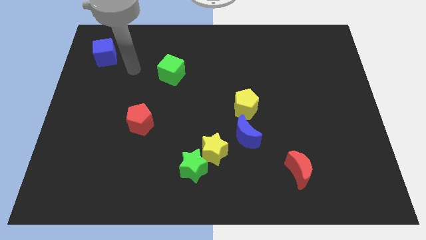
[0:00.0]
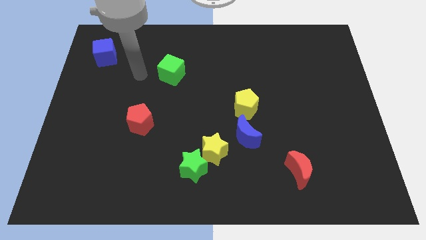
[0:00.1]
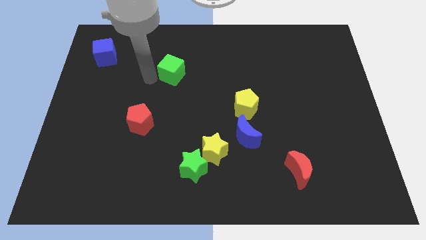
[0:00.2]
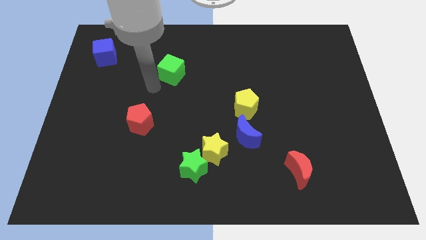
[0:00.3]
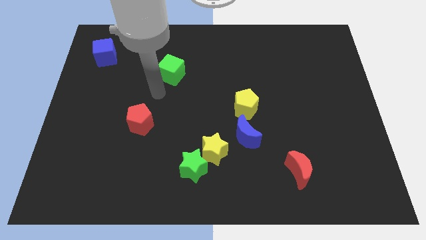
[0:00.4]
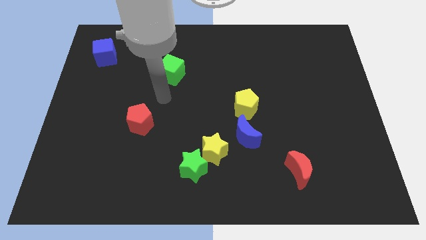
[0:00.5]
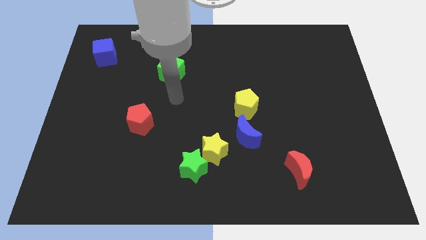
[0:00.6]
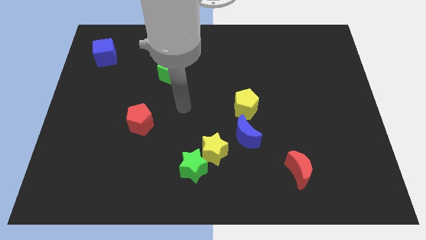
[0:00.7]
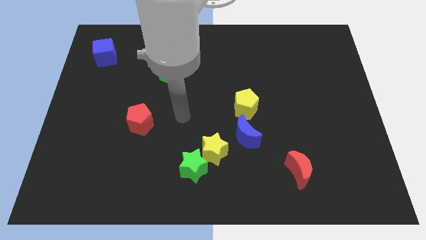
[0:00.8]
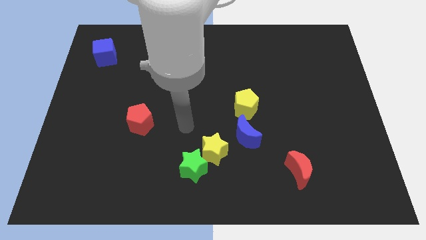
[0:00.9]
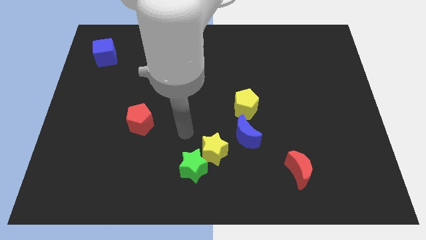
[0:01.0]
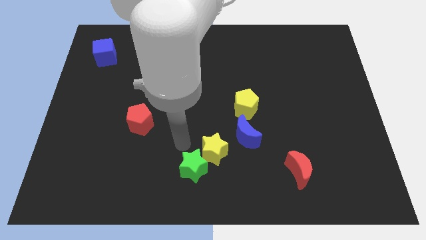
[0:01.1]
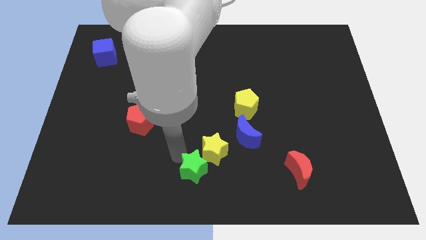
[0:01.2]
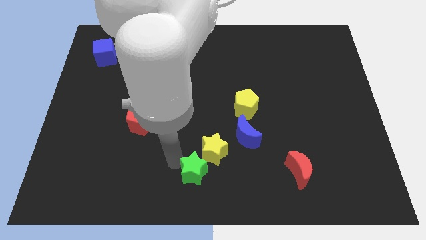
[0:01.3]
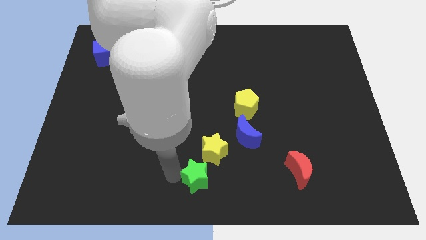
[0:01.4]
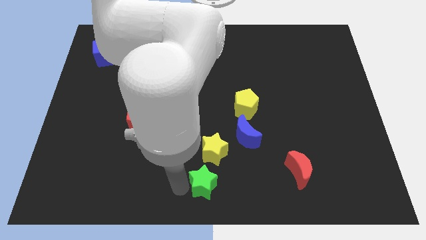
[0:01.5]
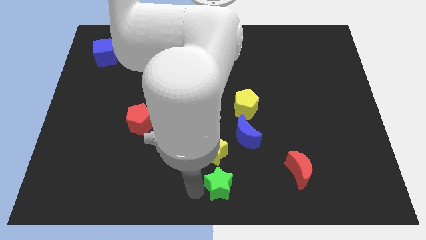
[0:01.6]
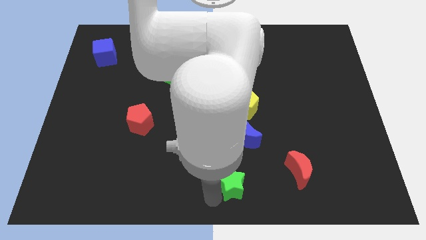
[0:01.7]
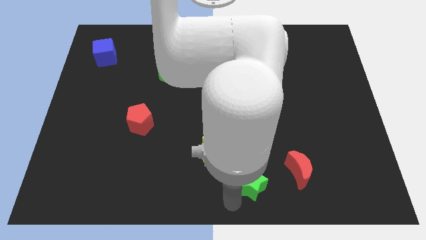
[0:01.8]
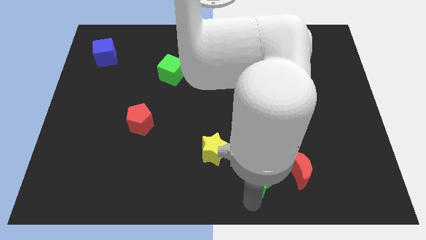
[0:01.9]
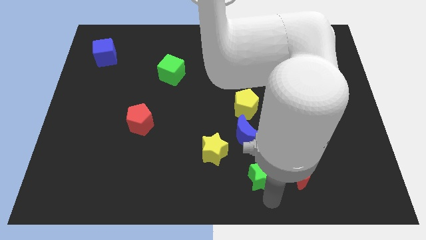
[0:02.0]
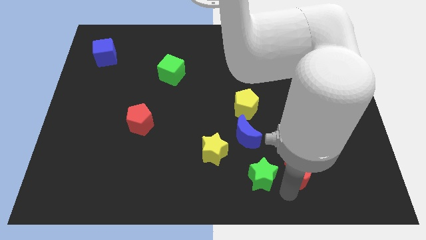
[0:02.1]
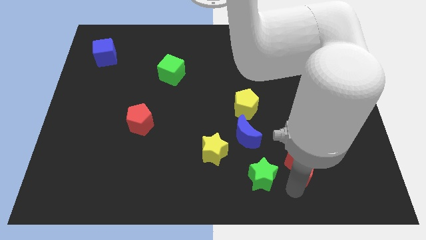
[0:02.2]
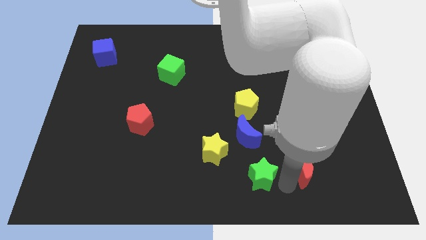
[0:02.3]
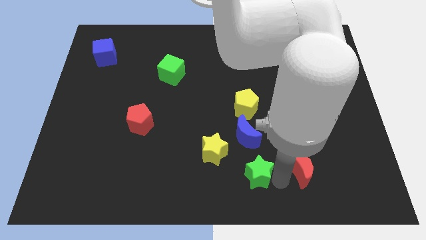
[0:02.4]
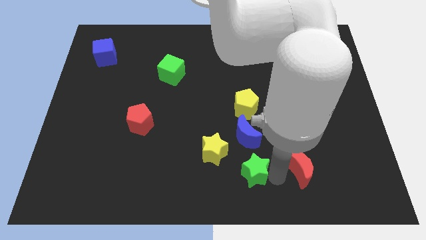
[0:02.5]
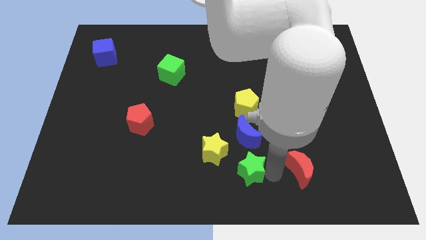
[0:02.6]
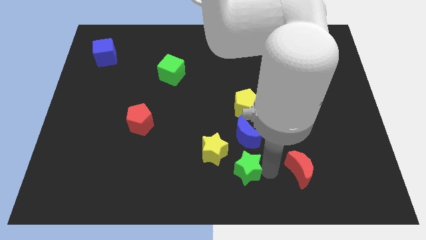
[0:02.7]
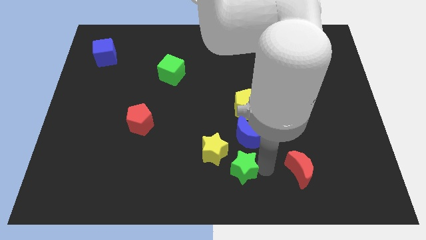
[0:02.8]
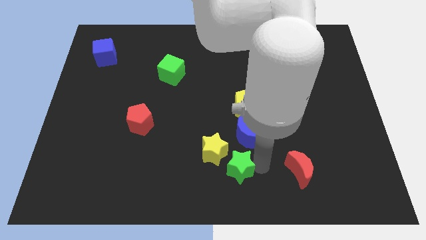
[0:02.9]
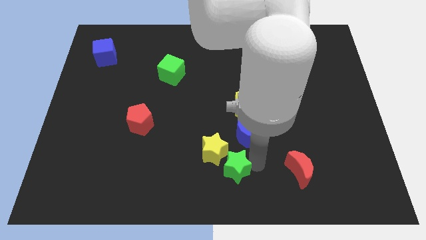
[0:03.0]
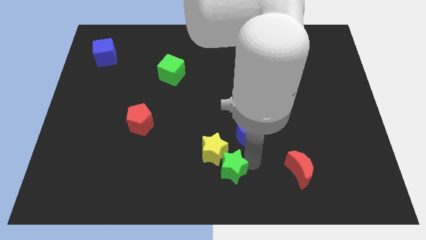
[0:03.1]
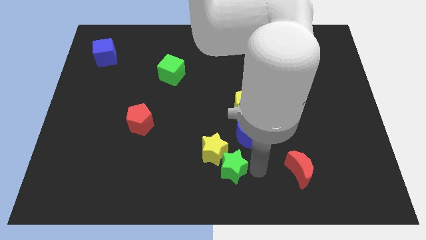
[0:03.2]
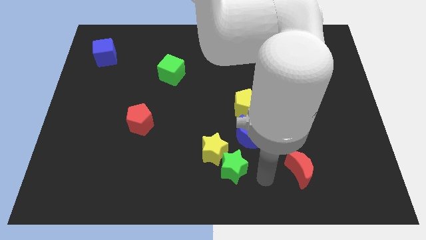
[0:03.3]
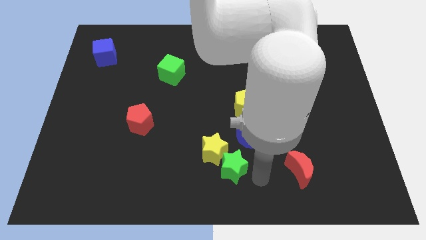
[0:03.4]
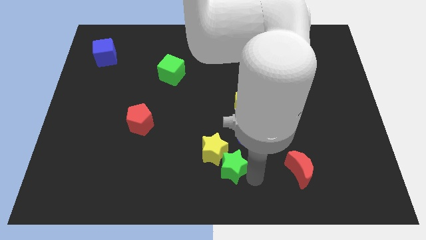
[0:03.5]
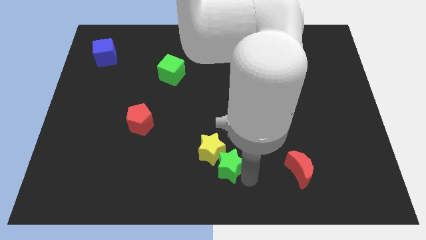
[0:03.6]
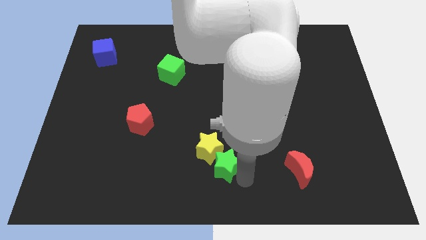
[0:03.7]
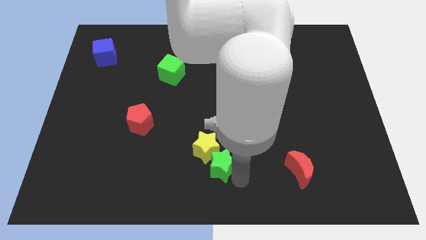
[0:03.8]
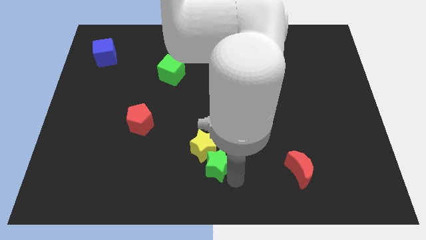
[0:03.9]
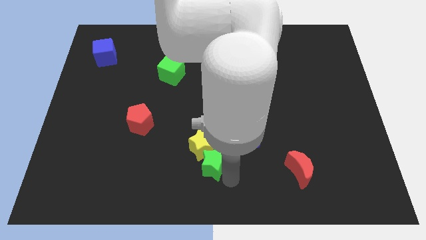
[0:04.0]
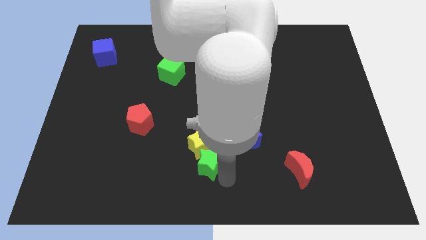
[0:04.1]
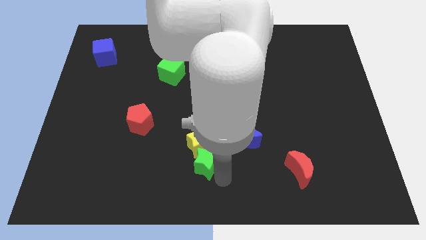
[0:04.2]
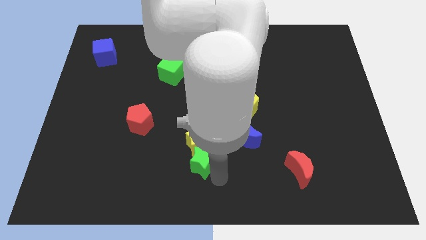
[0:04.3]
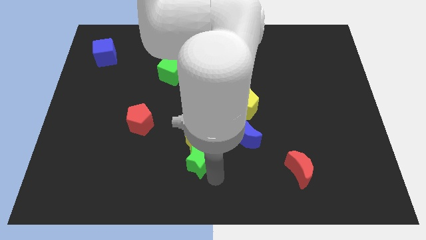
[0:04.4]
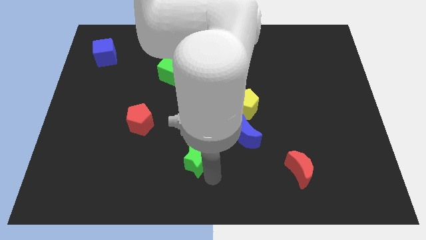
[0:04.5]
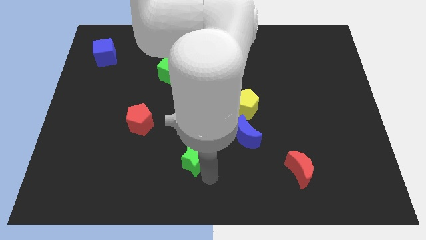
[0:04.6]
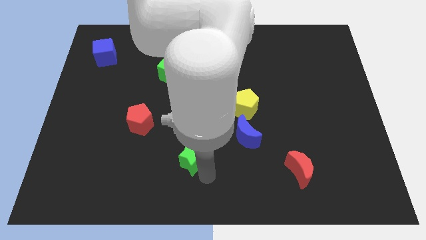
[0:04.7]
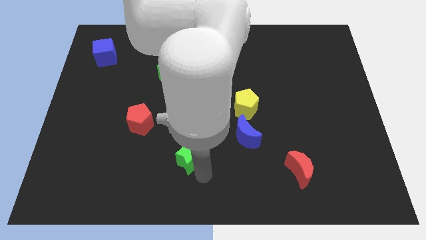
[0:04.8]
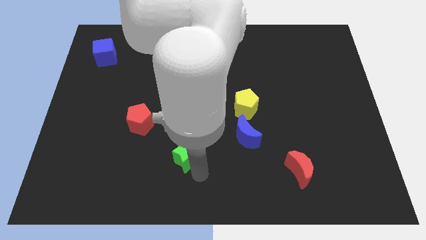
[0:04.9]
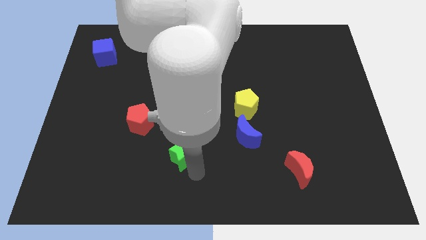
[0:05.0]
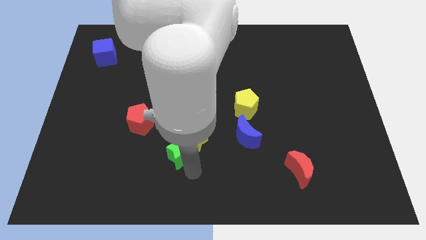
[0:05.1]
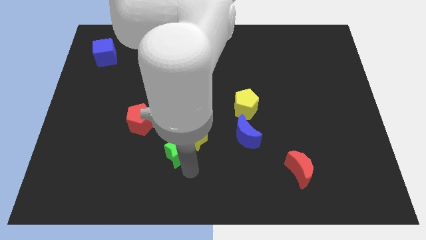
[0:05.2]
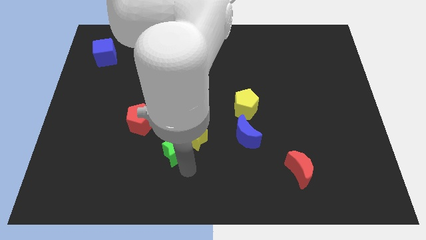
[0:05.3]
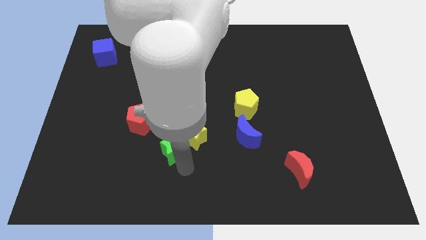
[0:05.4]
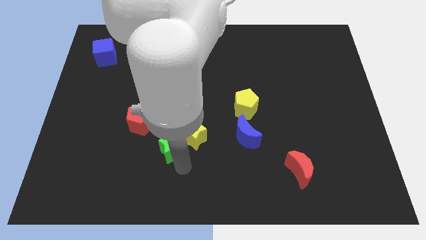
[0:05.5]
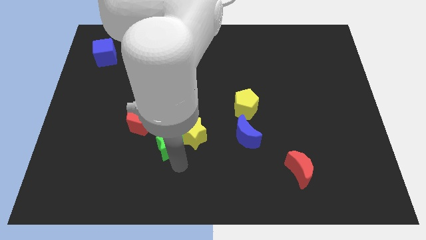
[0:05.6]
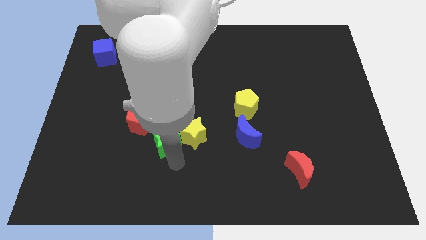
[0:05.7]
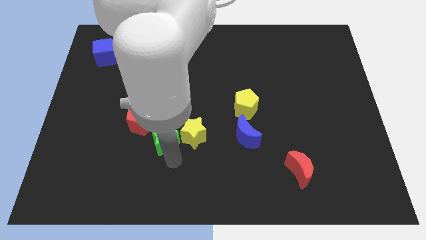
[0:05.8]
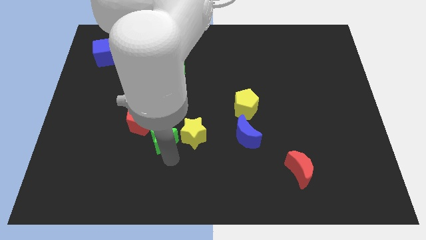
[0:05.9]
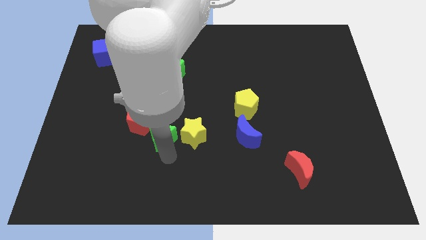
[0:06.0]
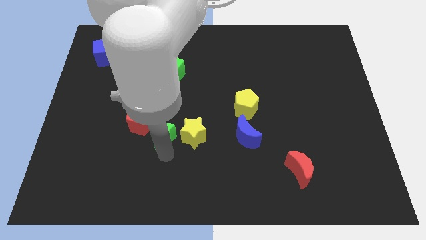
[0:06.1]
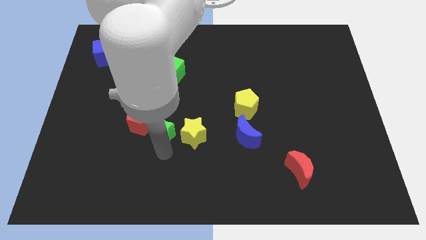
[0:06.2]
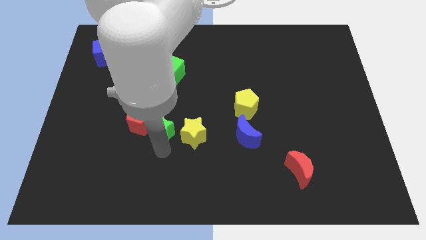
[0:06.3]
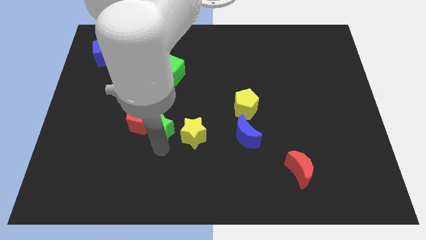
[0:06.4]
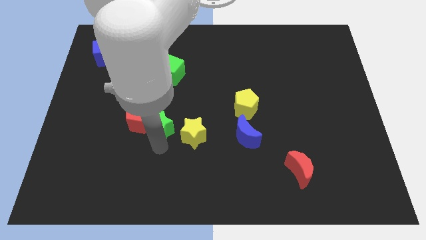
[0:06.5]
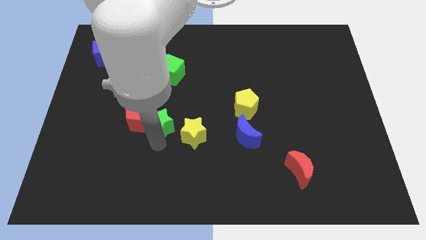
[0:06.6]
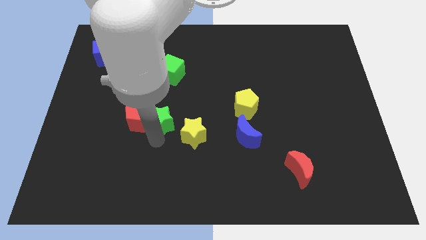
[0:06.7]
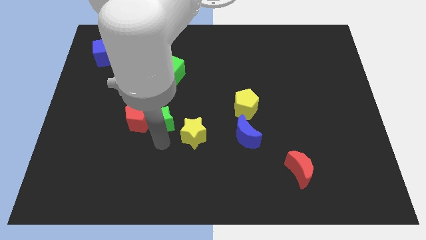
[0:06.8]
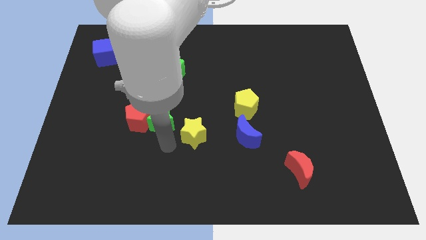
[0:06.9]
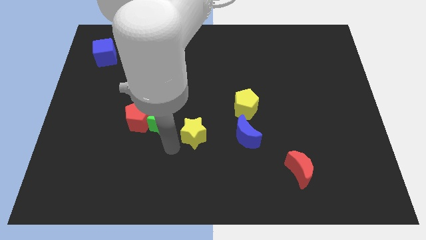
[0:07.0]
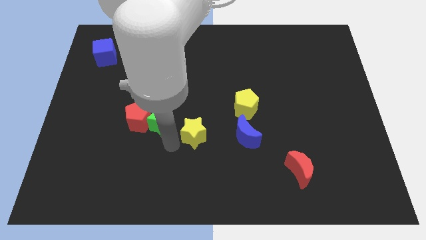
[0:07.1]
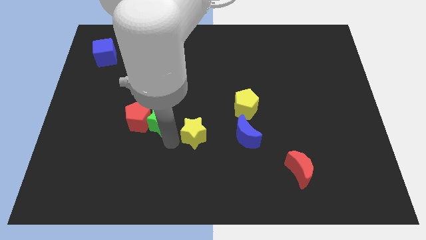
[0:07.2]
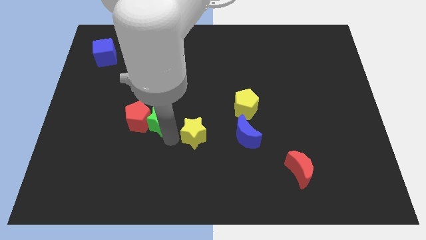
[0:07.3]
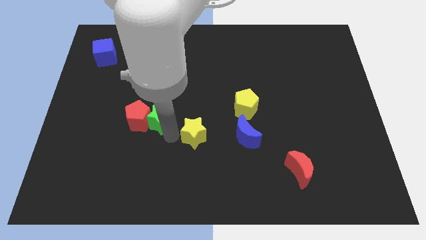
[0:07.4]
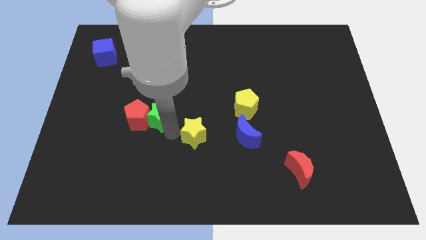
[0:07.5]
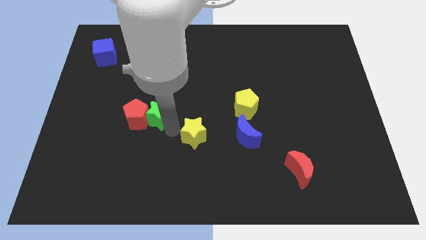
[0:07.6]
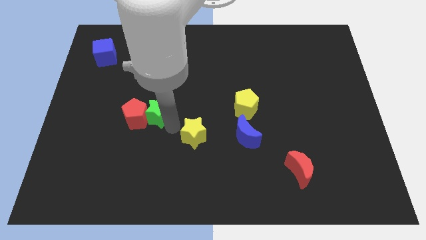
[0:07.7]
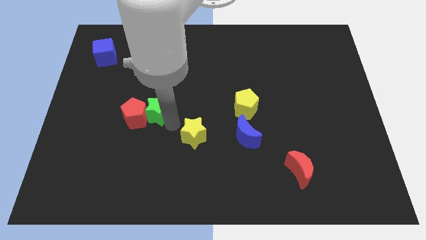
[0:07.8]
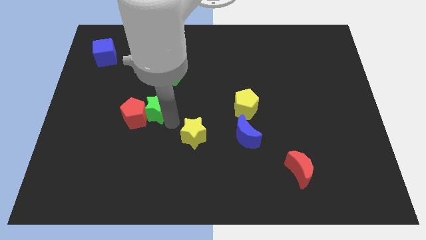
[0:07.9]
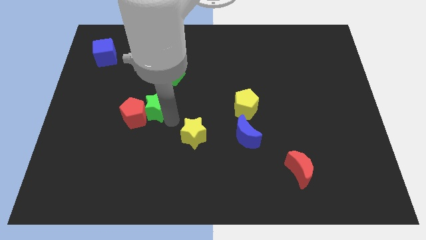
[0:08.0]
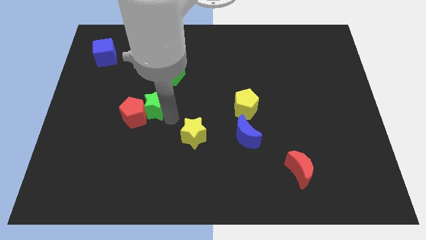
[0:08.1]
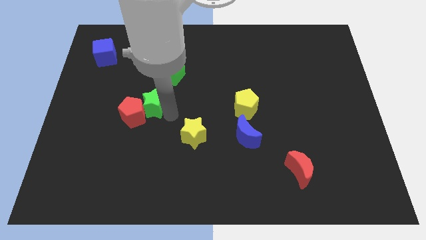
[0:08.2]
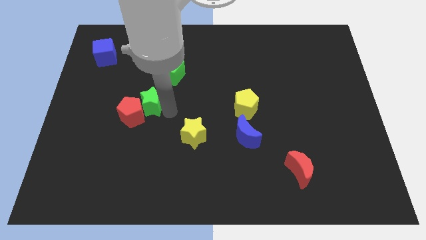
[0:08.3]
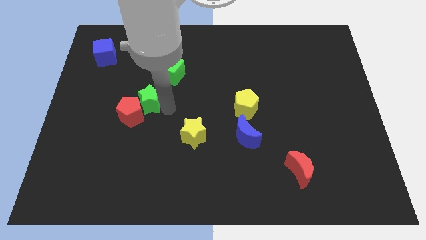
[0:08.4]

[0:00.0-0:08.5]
move the green star to the top side of the red pentagon
